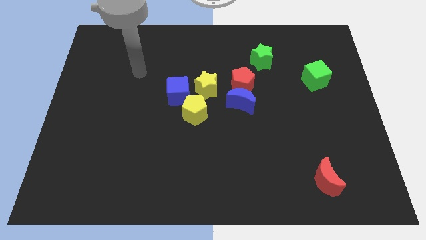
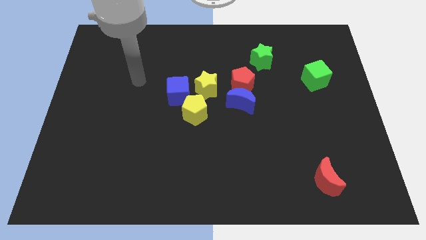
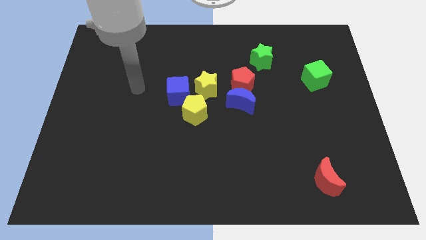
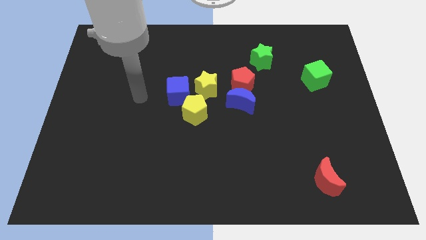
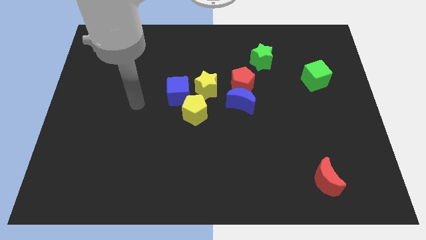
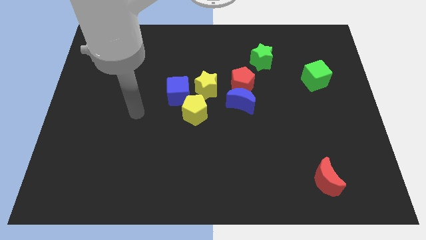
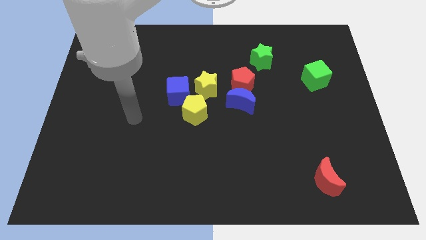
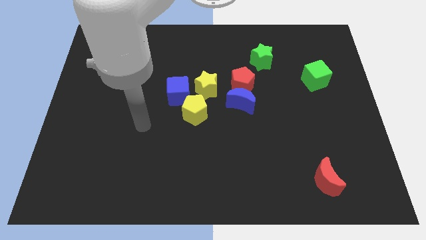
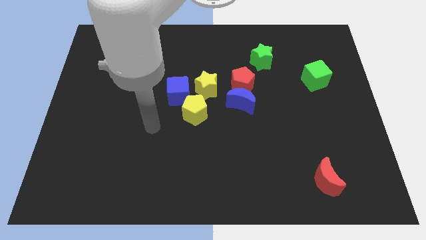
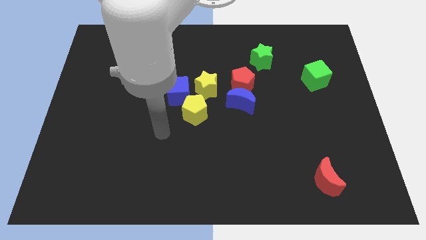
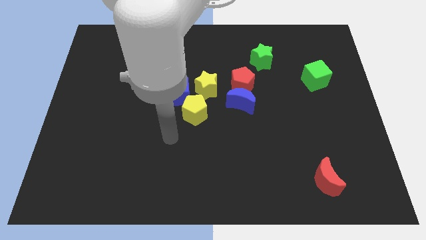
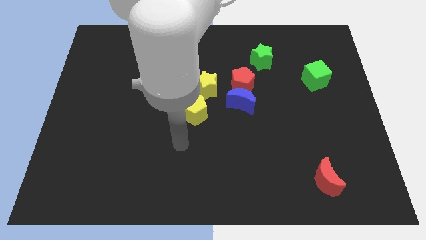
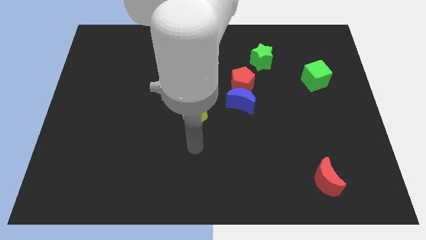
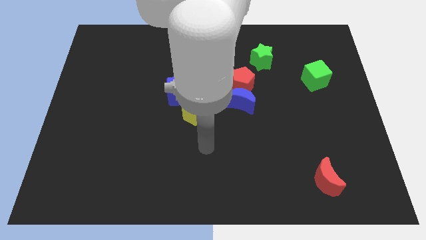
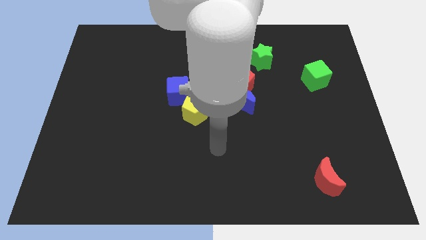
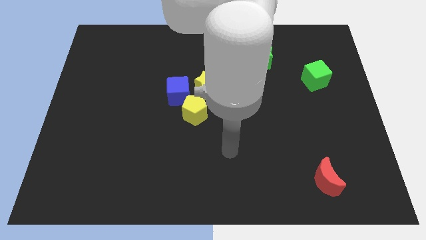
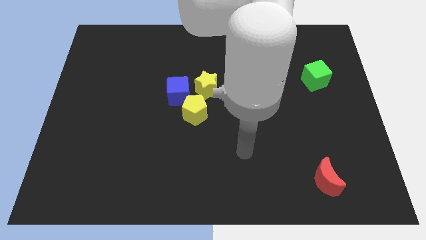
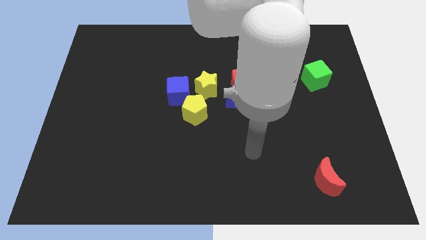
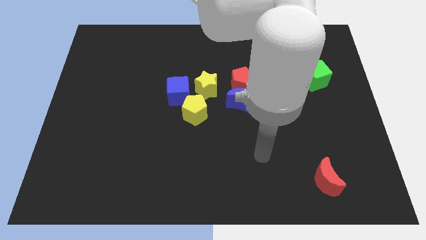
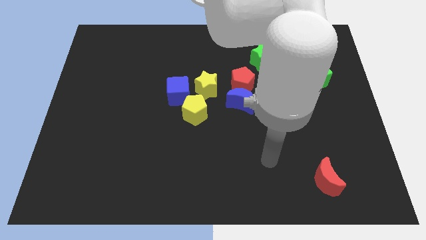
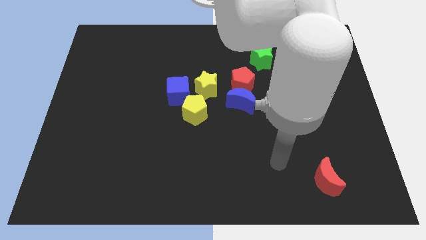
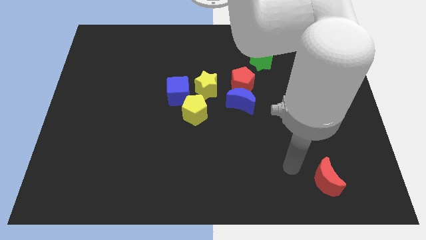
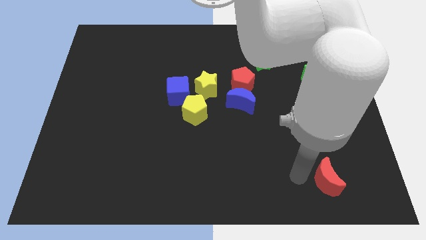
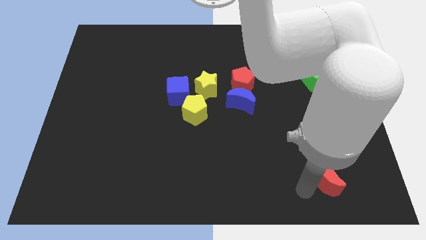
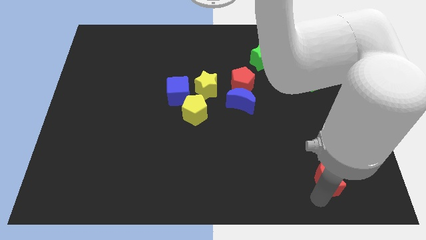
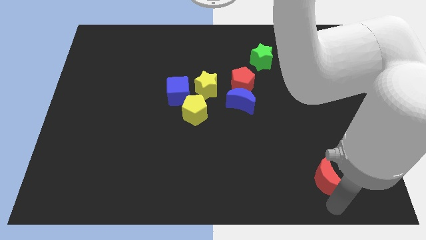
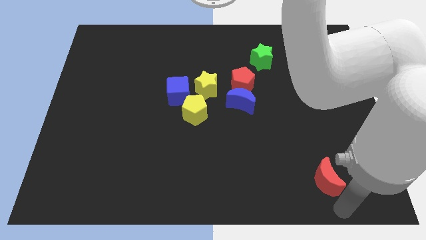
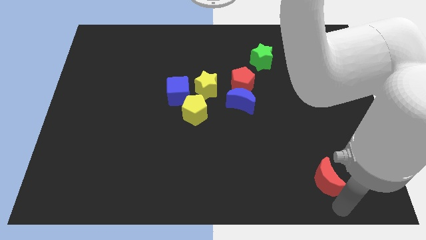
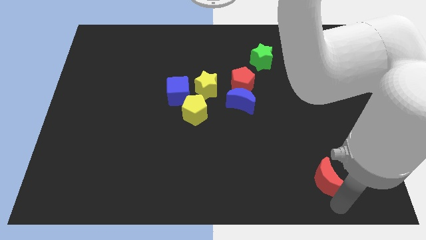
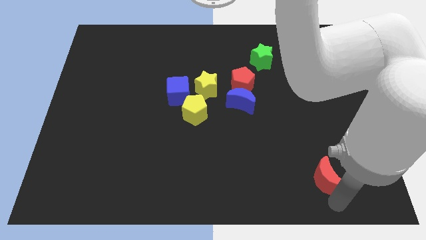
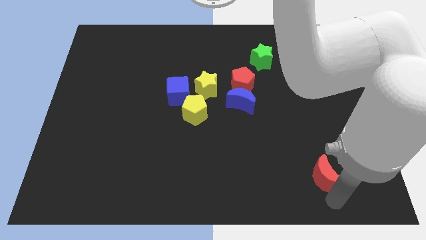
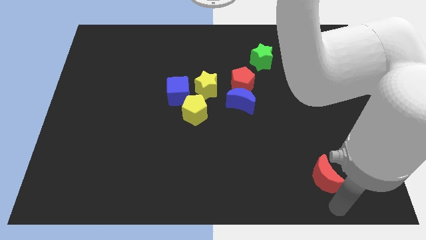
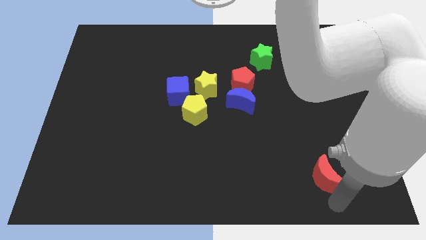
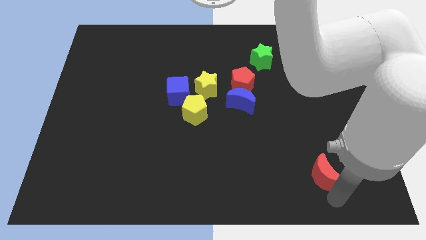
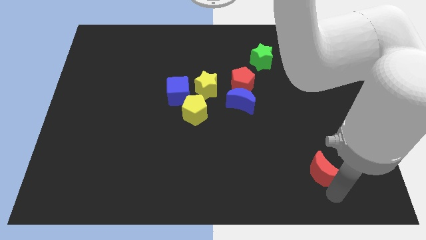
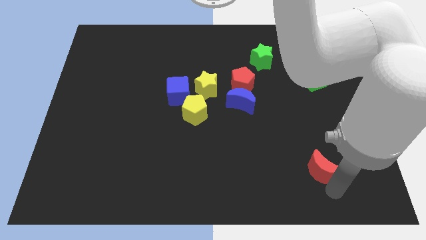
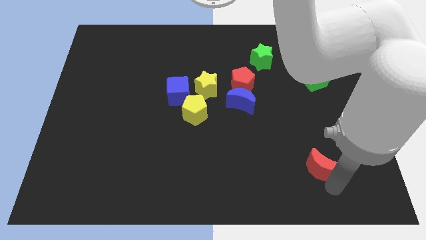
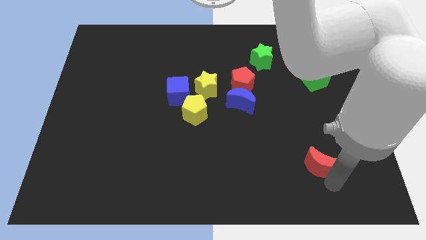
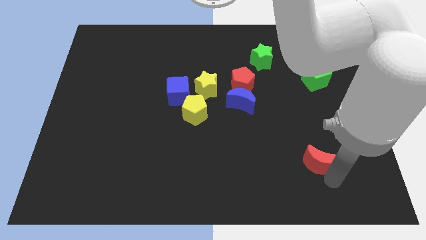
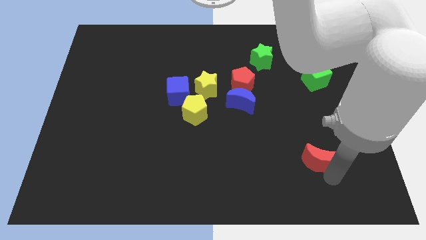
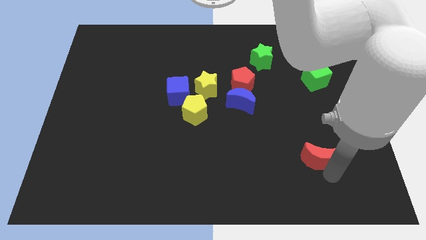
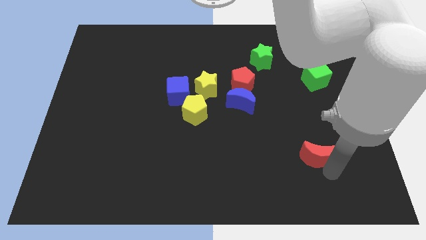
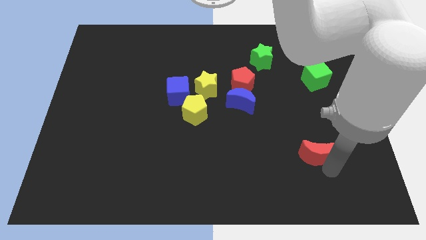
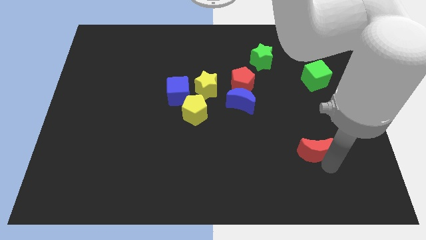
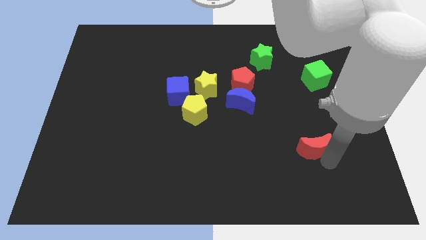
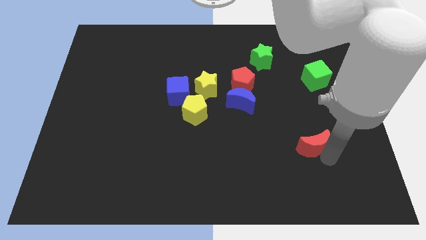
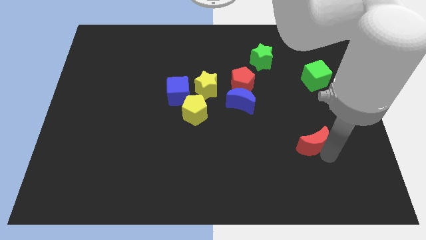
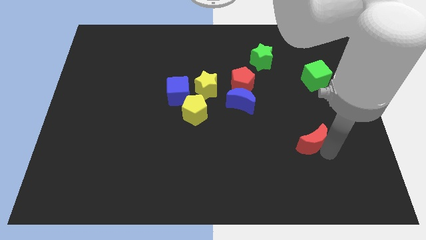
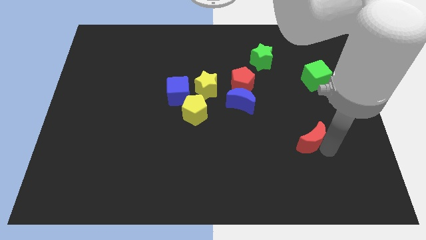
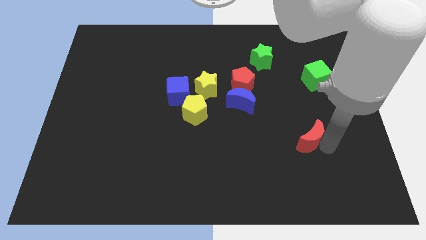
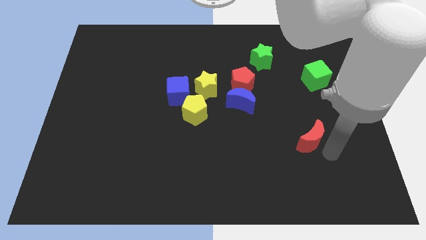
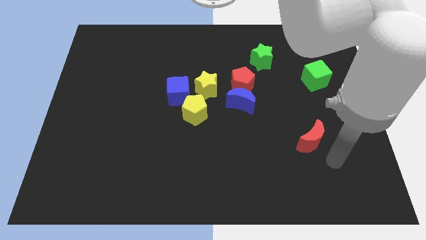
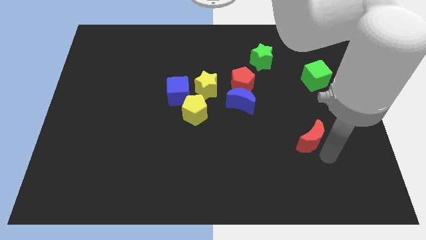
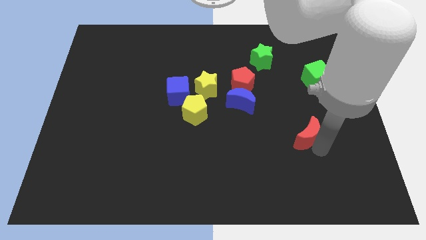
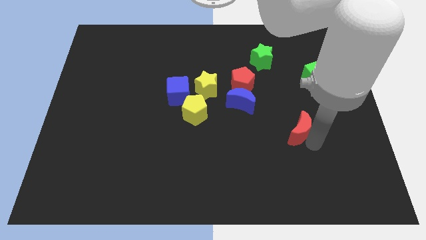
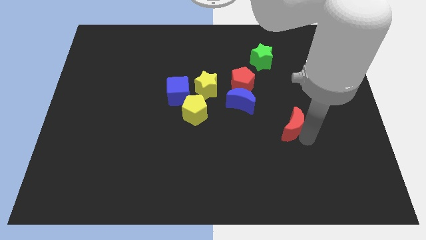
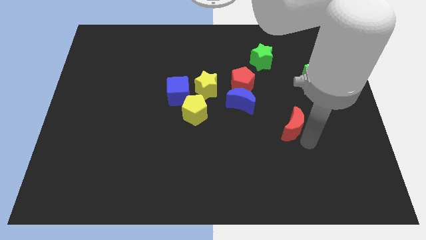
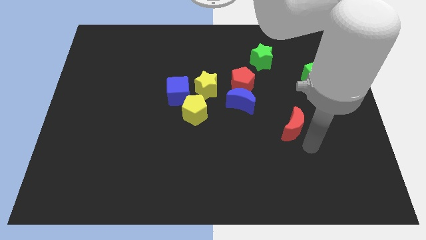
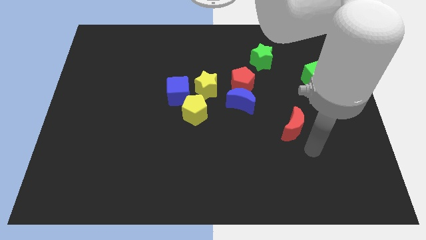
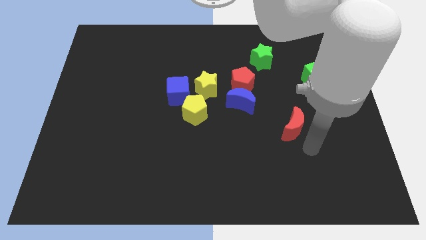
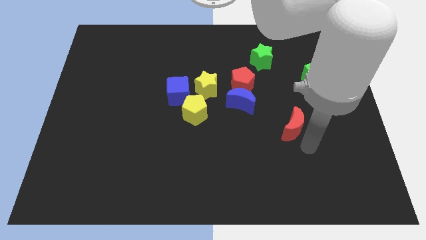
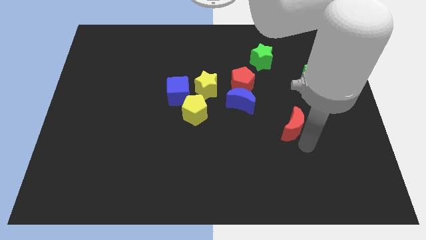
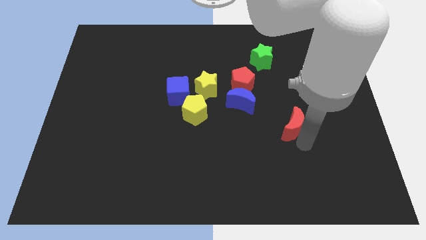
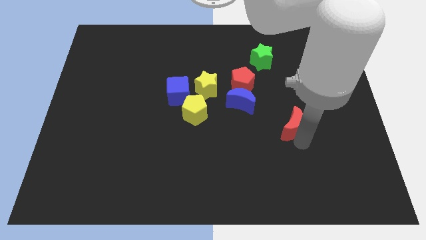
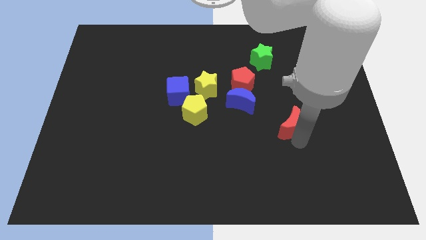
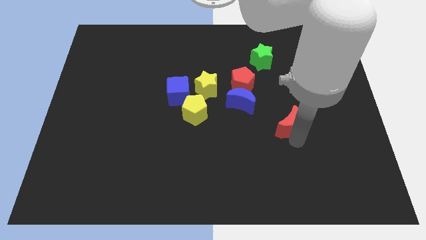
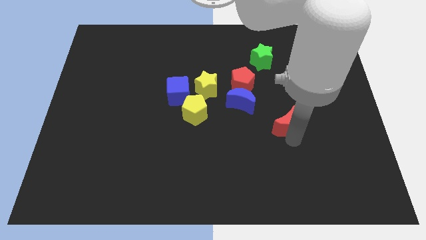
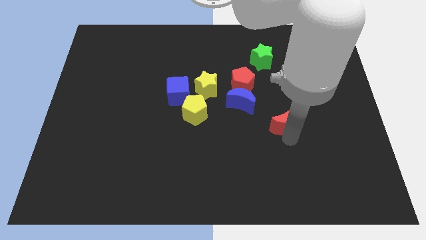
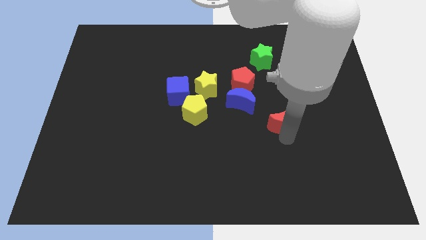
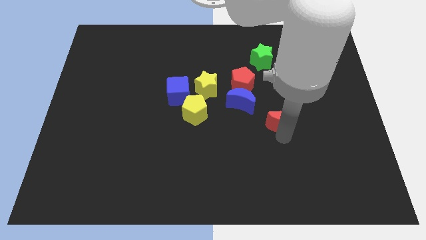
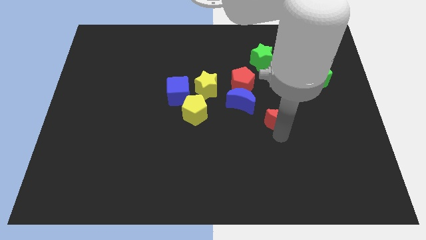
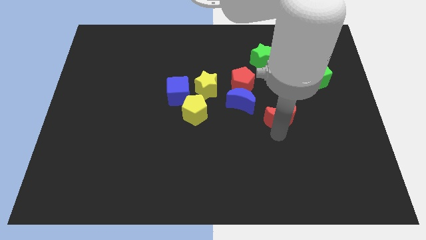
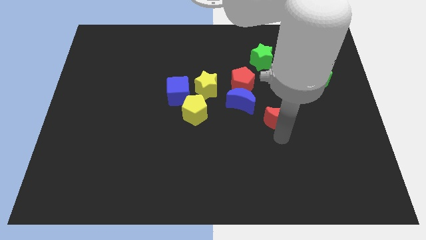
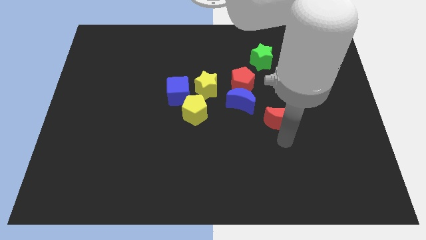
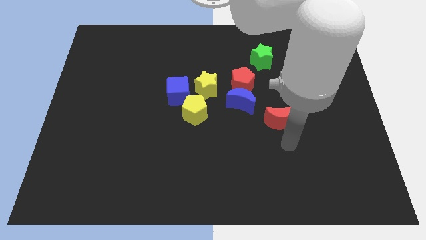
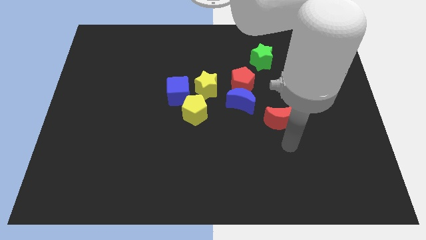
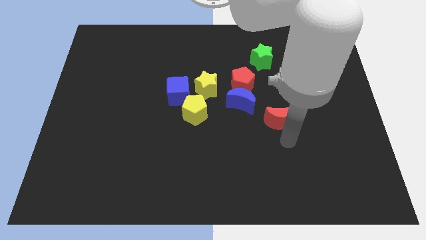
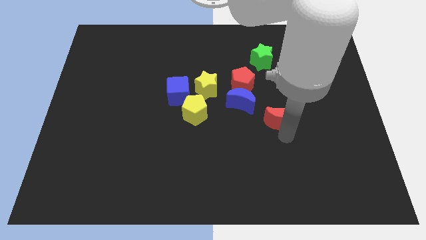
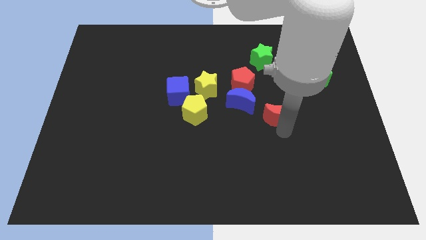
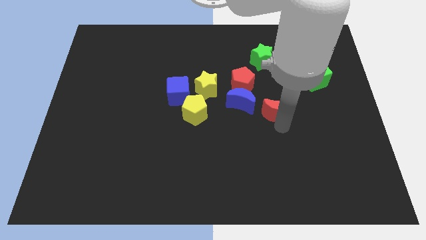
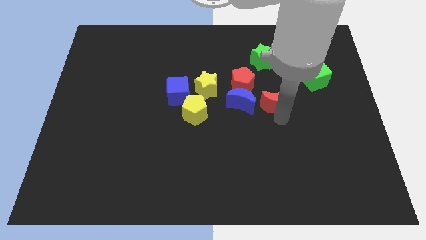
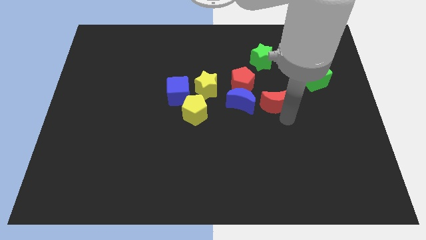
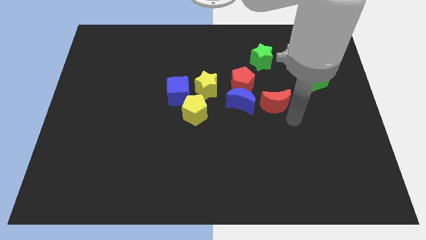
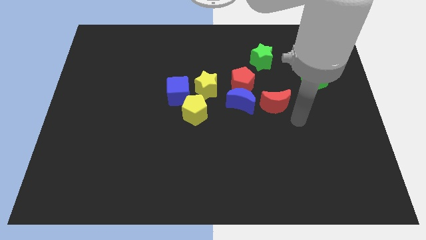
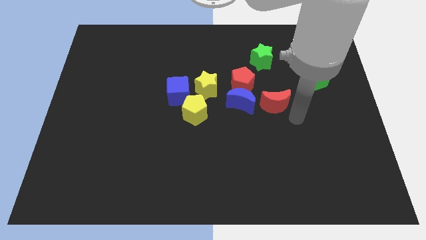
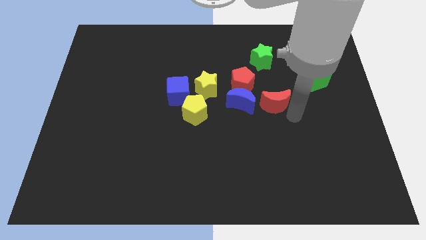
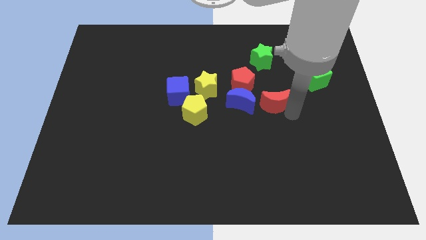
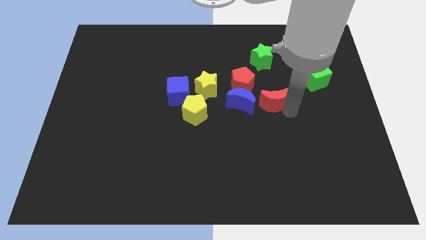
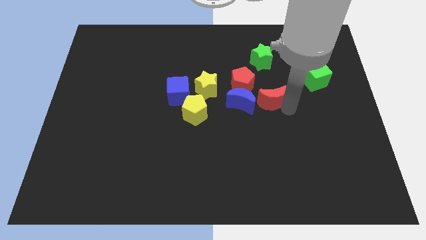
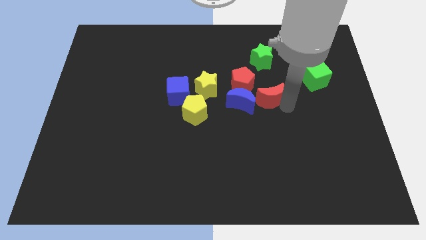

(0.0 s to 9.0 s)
push the red moon to the right of the yellow star
